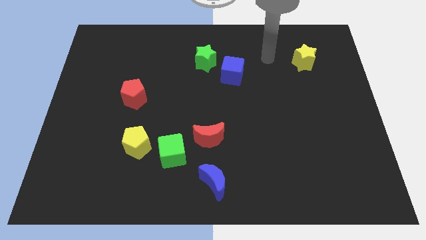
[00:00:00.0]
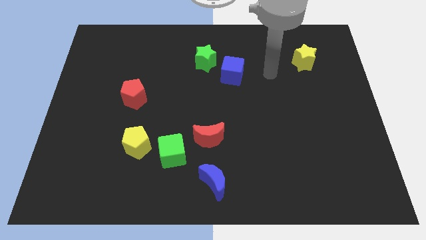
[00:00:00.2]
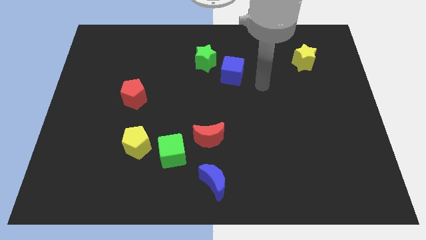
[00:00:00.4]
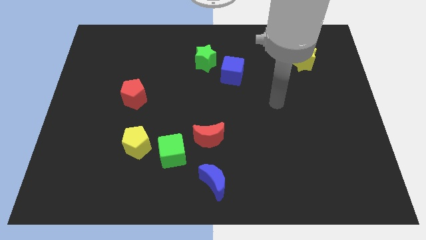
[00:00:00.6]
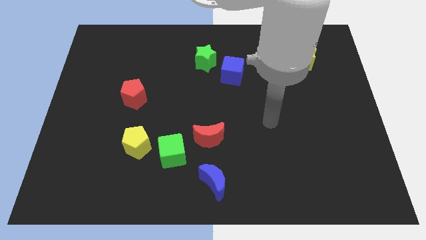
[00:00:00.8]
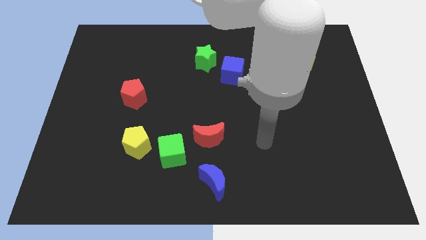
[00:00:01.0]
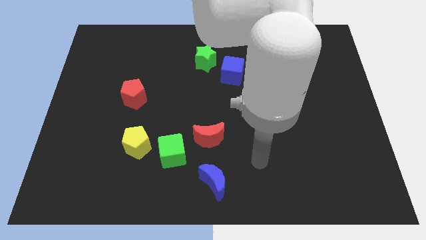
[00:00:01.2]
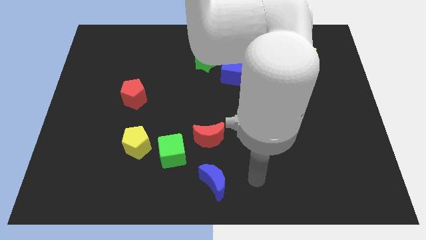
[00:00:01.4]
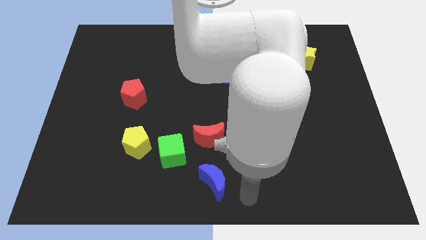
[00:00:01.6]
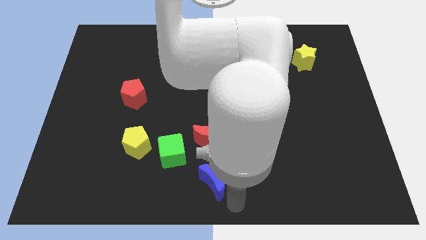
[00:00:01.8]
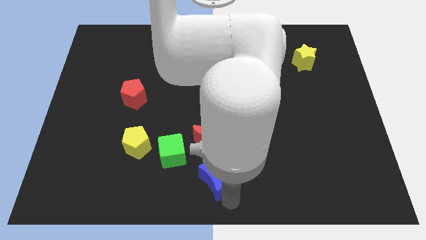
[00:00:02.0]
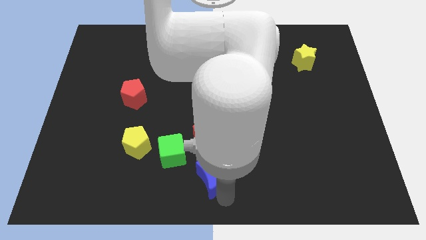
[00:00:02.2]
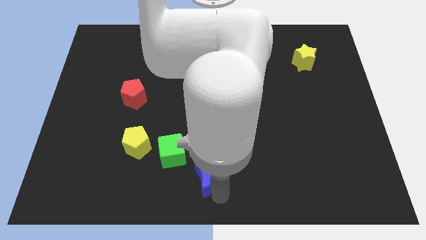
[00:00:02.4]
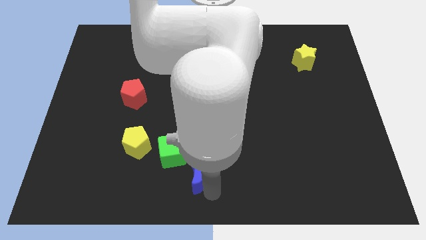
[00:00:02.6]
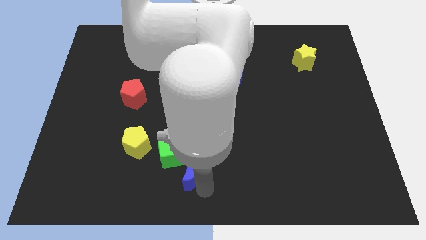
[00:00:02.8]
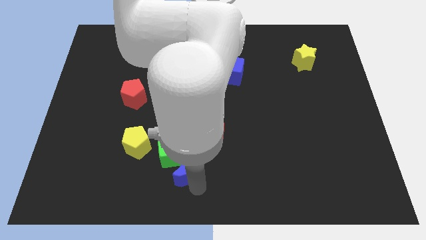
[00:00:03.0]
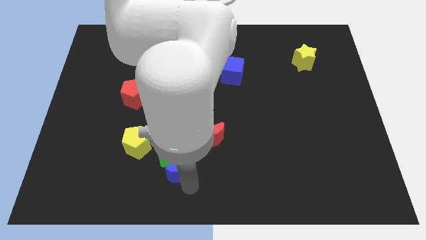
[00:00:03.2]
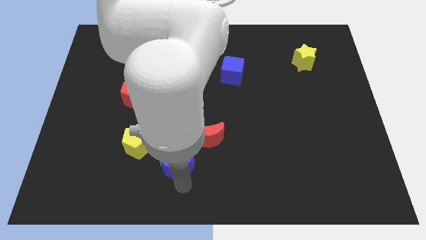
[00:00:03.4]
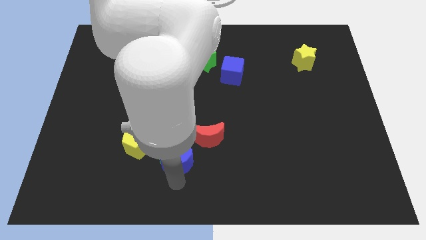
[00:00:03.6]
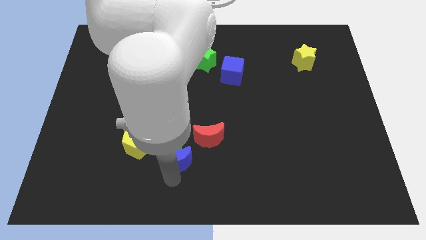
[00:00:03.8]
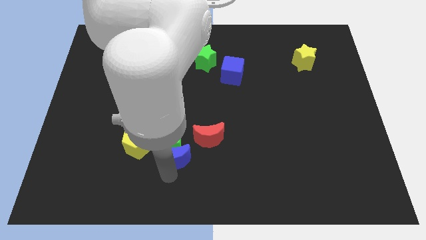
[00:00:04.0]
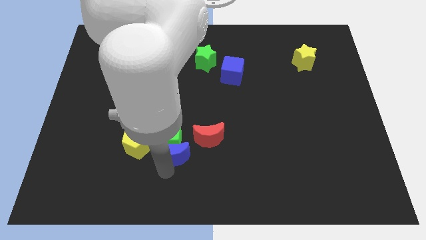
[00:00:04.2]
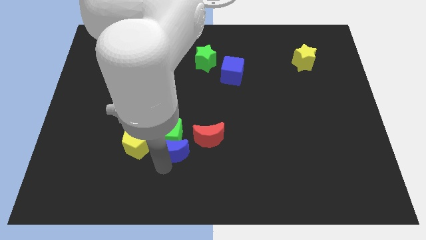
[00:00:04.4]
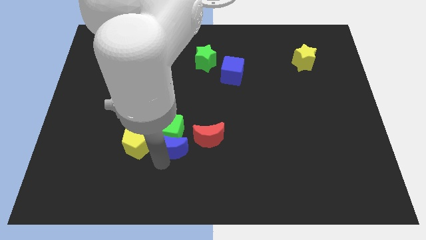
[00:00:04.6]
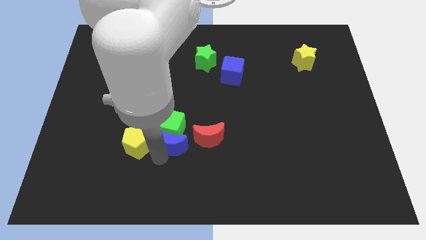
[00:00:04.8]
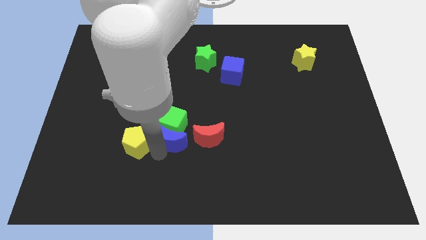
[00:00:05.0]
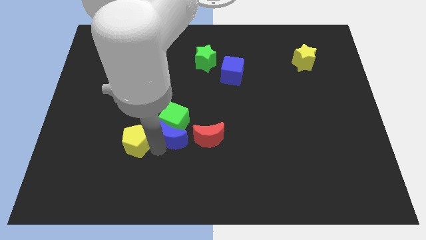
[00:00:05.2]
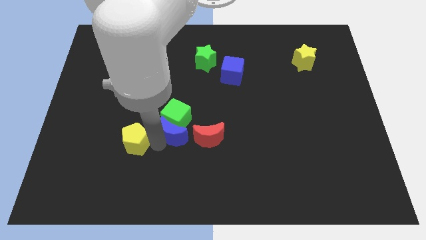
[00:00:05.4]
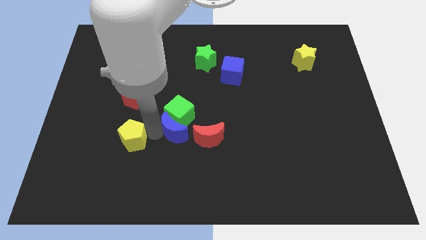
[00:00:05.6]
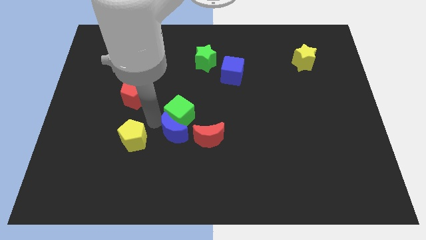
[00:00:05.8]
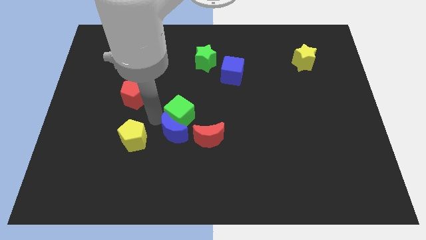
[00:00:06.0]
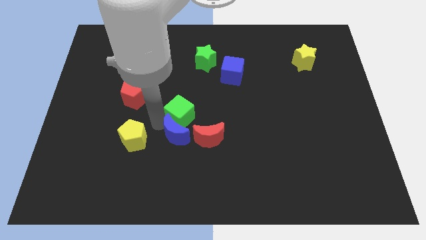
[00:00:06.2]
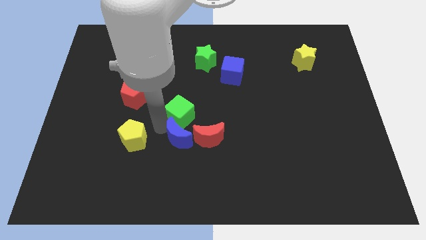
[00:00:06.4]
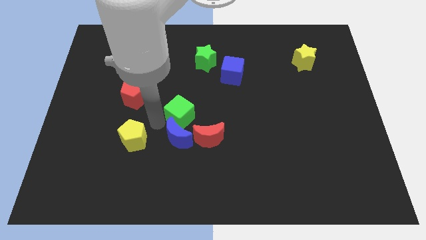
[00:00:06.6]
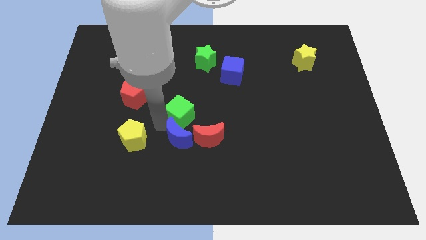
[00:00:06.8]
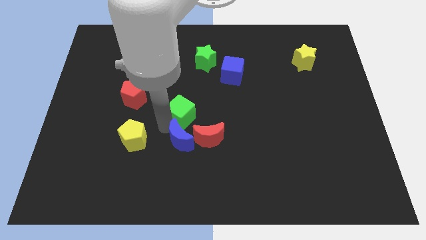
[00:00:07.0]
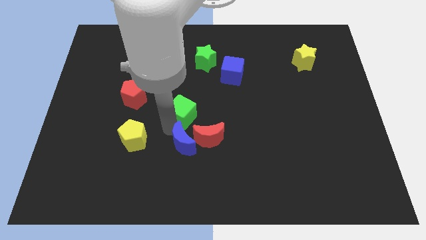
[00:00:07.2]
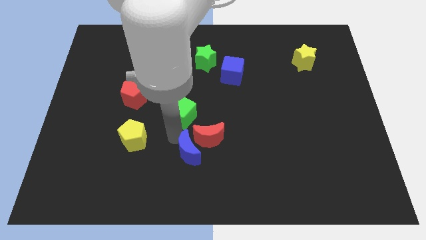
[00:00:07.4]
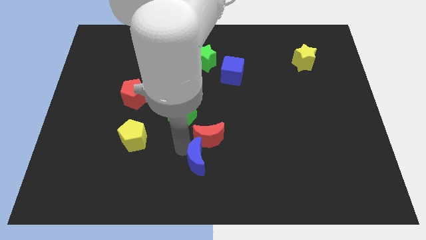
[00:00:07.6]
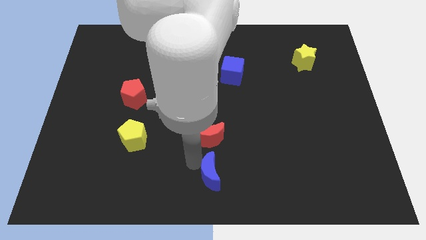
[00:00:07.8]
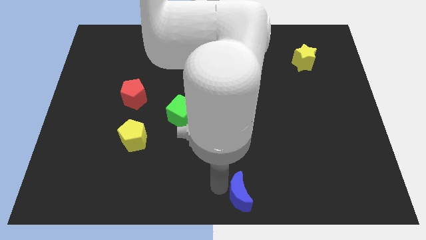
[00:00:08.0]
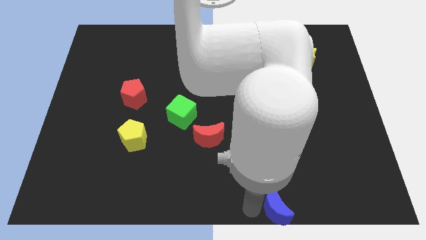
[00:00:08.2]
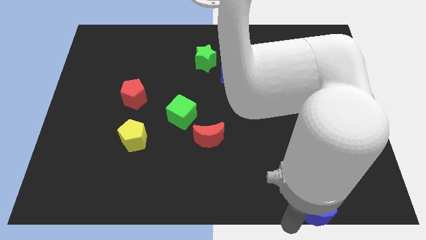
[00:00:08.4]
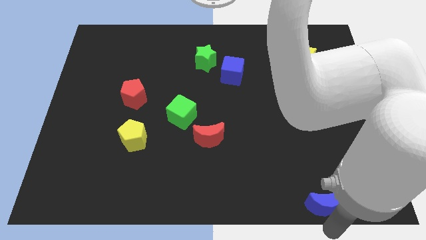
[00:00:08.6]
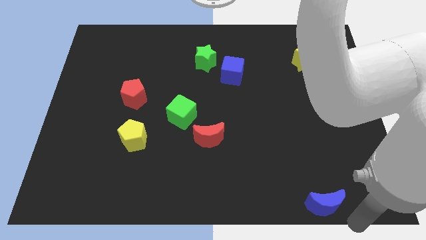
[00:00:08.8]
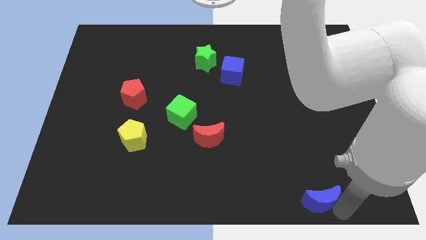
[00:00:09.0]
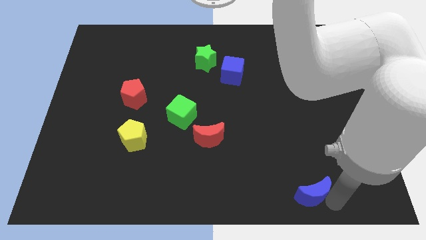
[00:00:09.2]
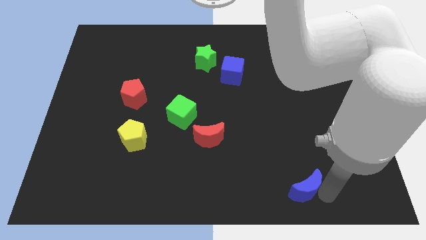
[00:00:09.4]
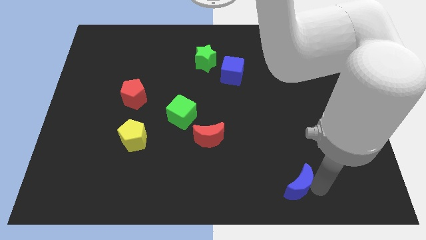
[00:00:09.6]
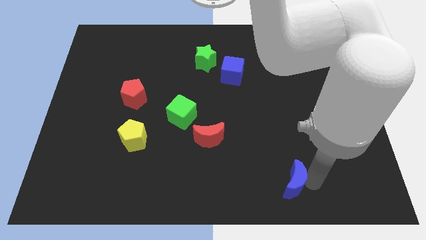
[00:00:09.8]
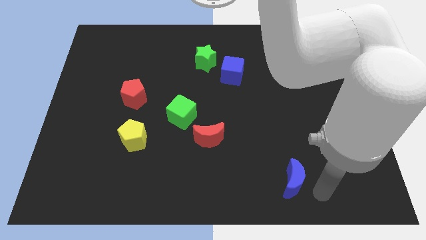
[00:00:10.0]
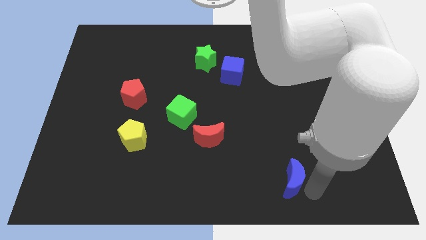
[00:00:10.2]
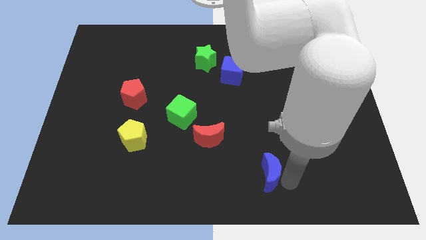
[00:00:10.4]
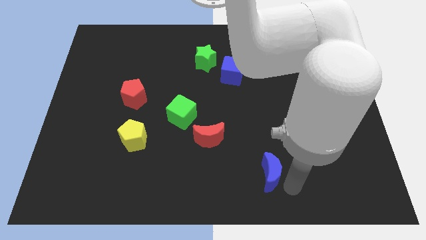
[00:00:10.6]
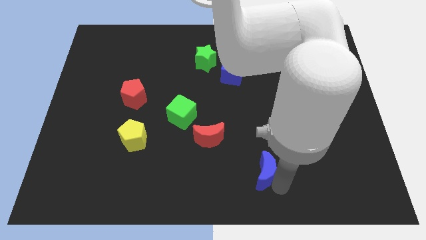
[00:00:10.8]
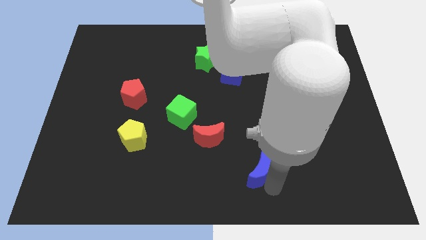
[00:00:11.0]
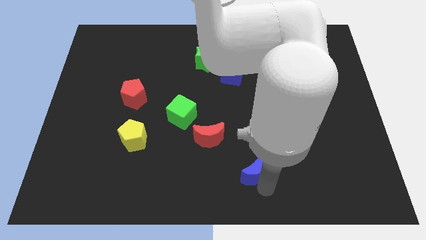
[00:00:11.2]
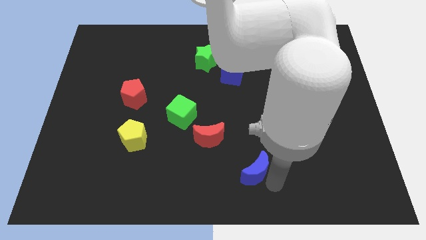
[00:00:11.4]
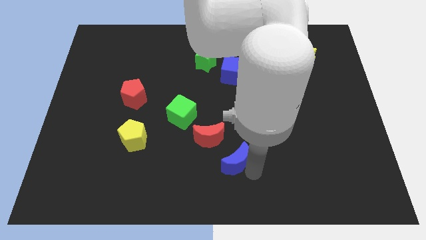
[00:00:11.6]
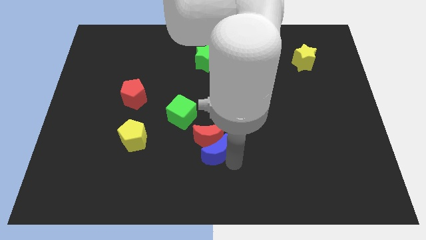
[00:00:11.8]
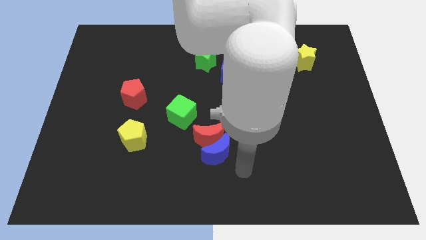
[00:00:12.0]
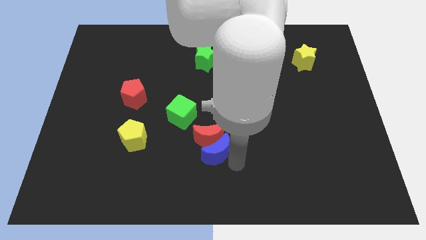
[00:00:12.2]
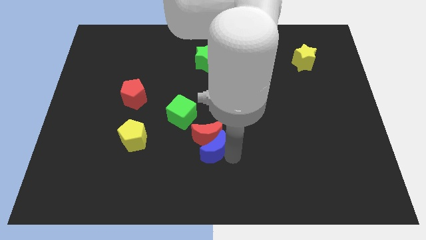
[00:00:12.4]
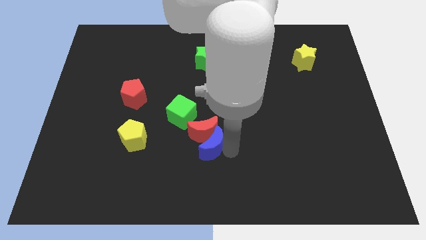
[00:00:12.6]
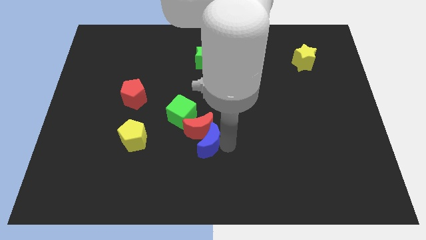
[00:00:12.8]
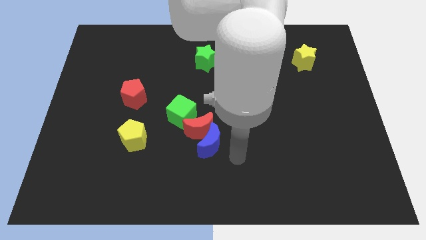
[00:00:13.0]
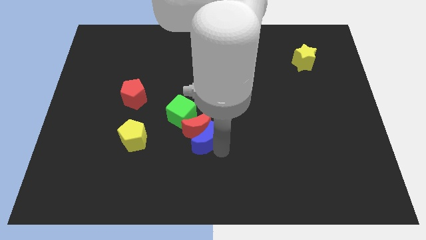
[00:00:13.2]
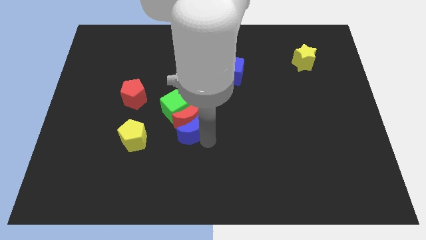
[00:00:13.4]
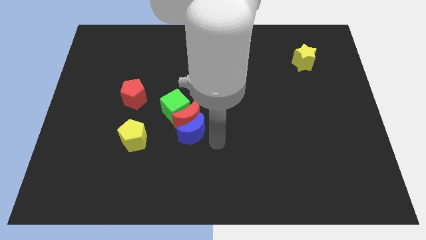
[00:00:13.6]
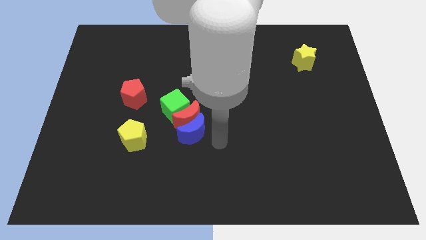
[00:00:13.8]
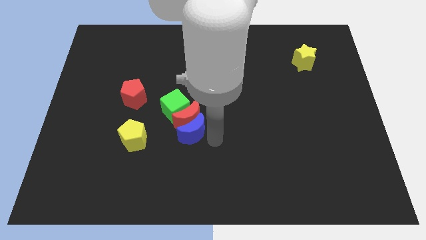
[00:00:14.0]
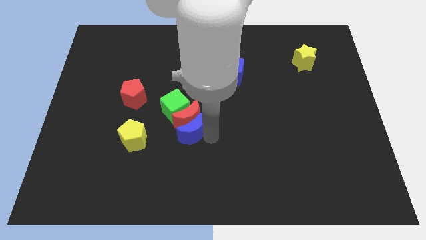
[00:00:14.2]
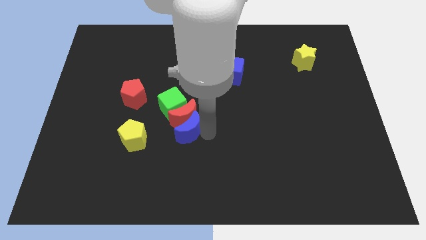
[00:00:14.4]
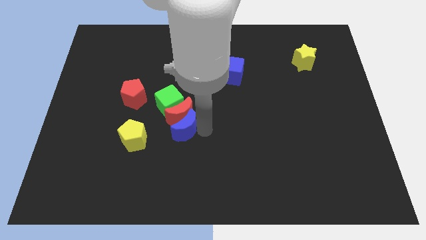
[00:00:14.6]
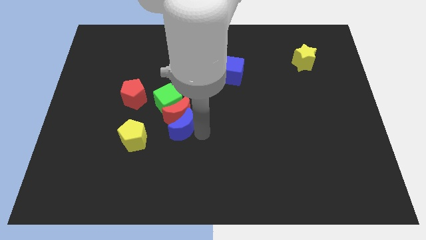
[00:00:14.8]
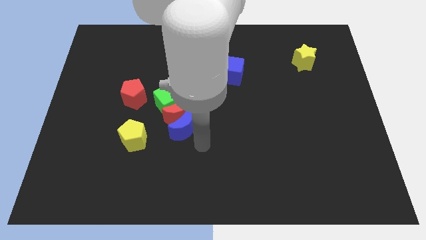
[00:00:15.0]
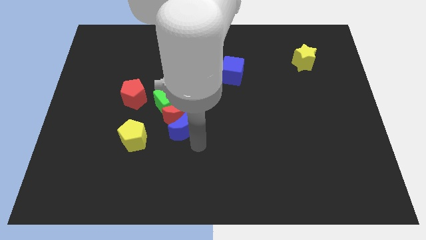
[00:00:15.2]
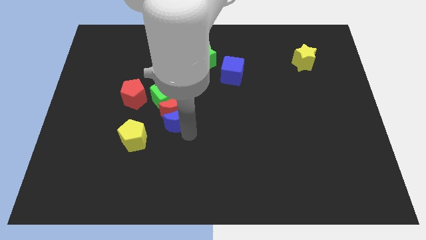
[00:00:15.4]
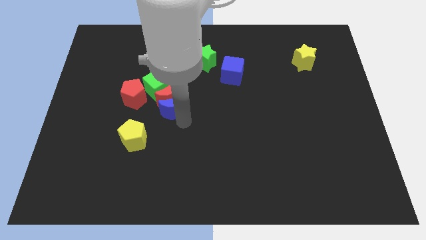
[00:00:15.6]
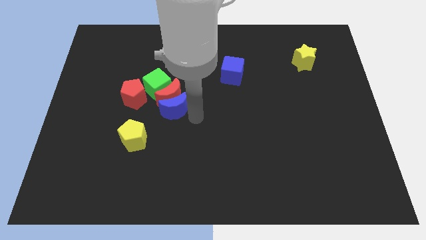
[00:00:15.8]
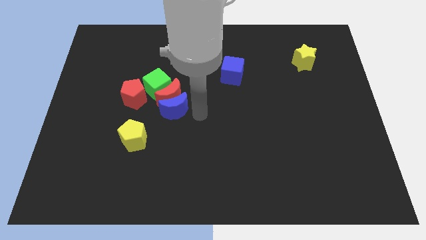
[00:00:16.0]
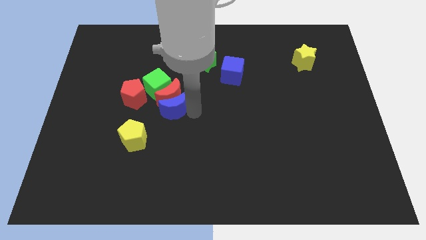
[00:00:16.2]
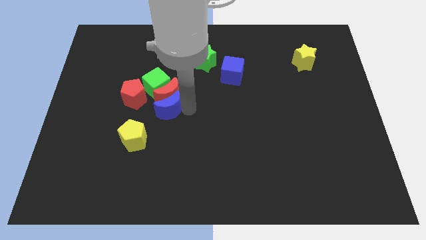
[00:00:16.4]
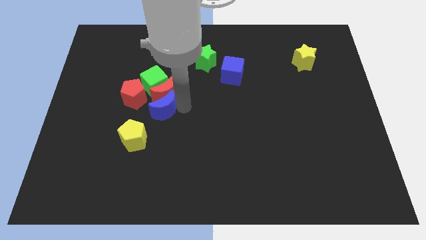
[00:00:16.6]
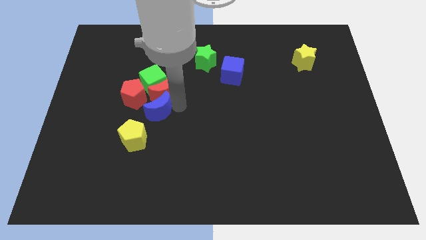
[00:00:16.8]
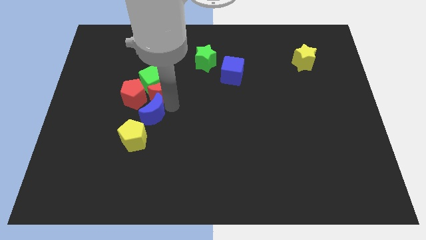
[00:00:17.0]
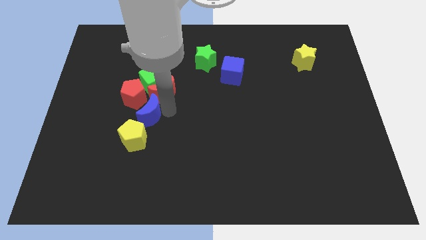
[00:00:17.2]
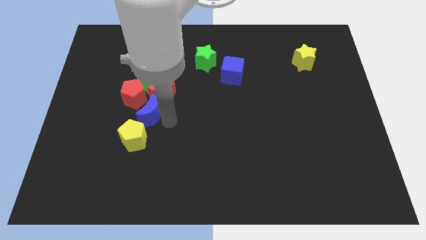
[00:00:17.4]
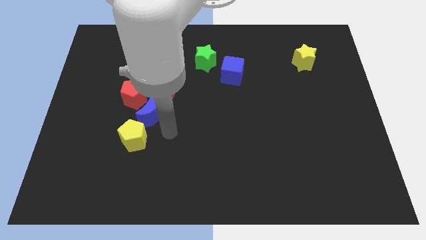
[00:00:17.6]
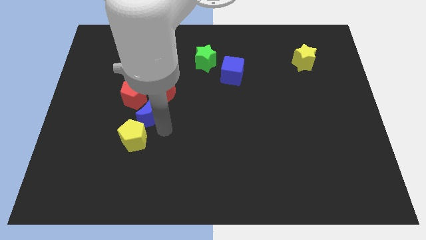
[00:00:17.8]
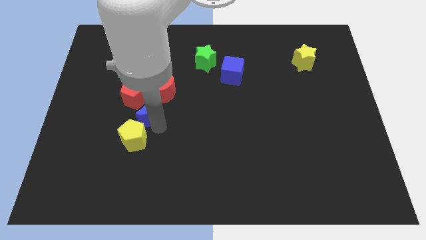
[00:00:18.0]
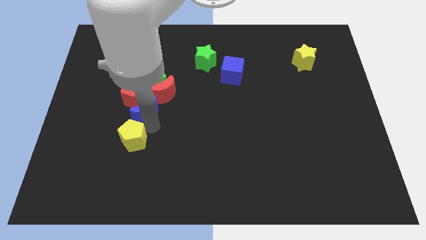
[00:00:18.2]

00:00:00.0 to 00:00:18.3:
put the blue moon towards the red pentagon
